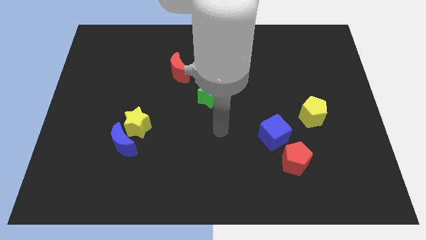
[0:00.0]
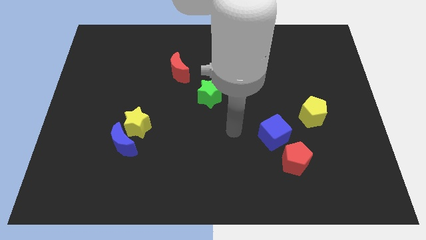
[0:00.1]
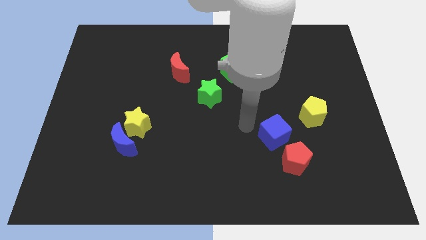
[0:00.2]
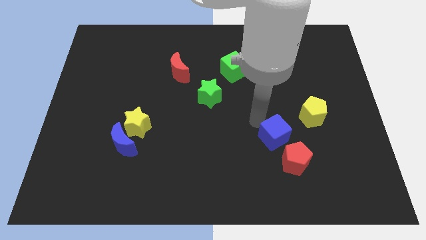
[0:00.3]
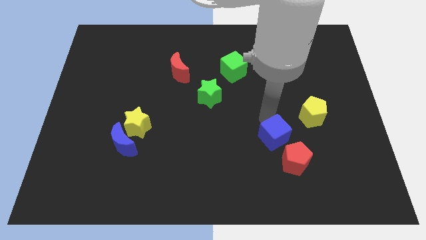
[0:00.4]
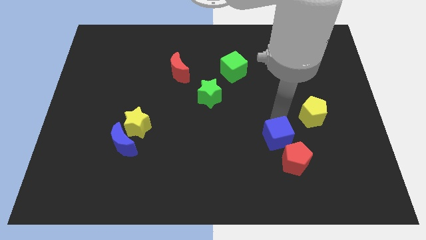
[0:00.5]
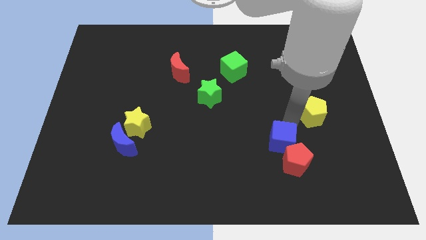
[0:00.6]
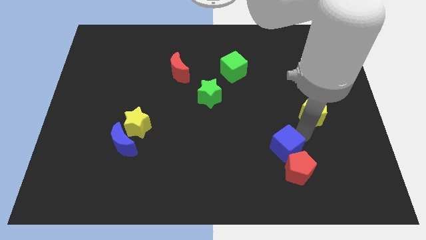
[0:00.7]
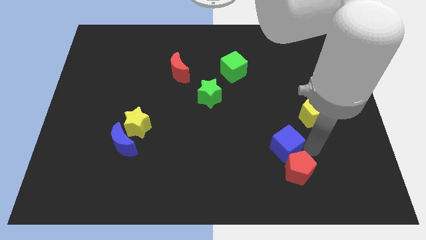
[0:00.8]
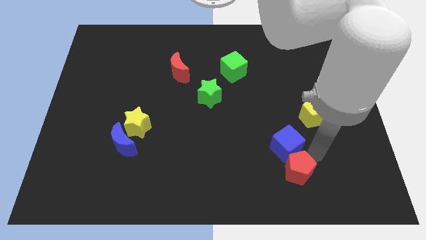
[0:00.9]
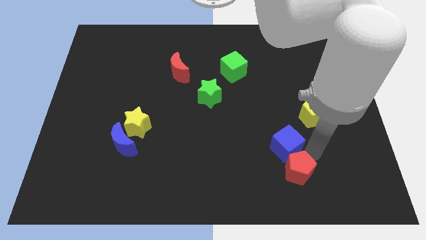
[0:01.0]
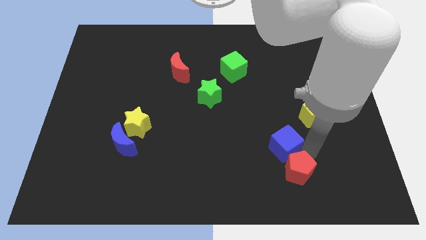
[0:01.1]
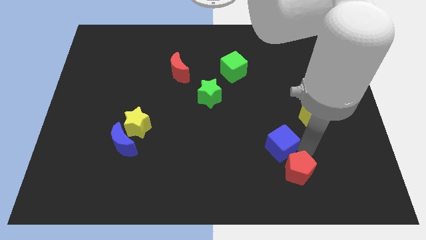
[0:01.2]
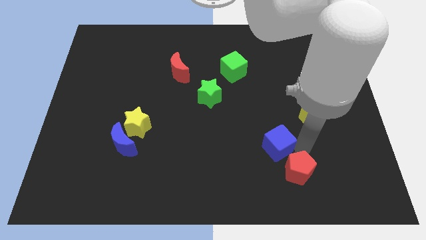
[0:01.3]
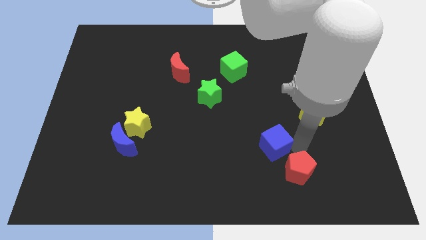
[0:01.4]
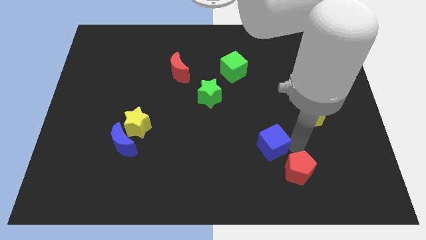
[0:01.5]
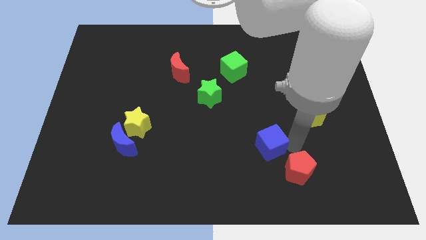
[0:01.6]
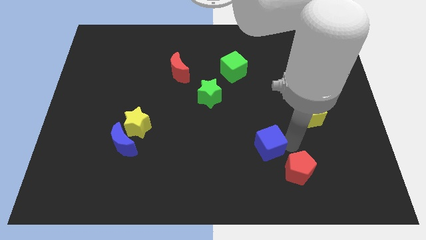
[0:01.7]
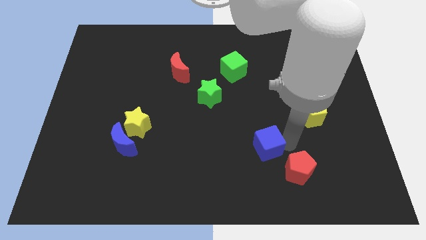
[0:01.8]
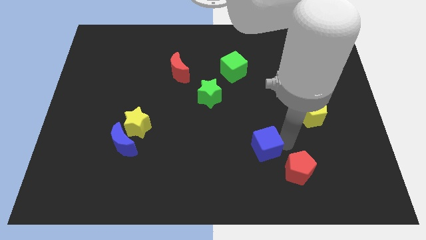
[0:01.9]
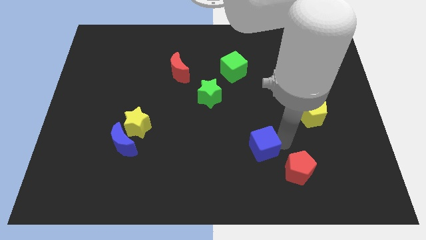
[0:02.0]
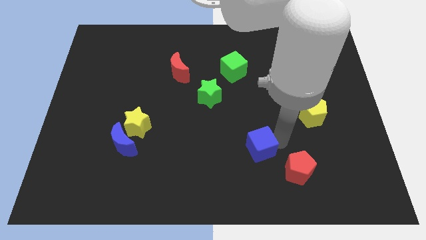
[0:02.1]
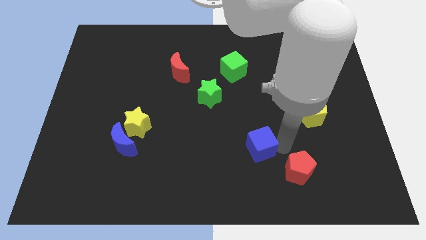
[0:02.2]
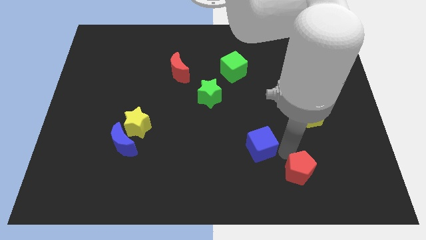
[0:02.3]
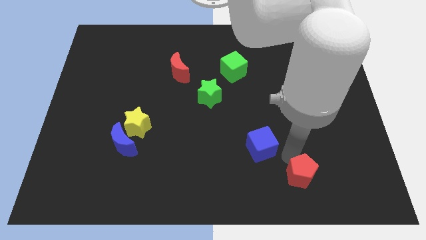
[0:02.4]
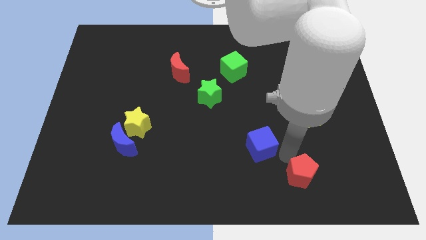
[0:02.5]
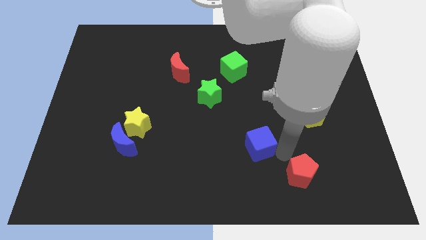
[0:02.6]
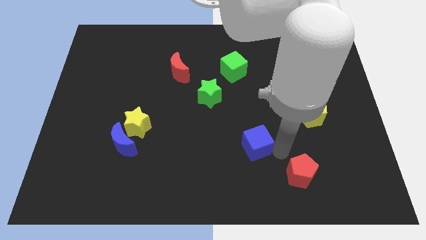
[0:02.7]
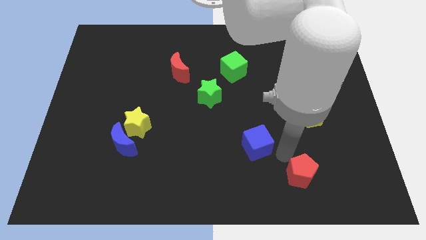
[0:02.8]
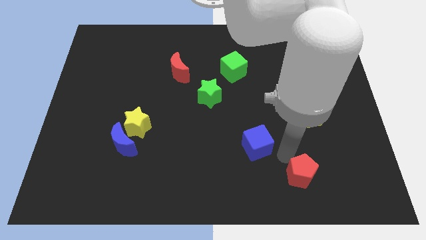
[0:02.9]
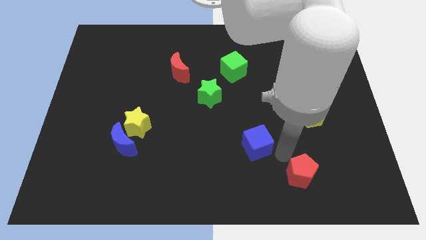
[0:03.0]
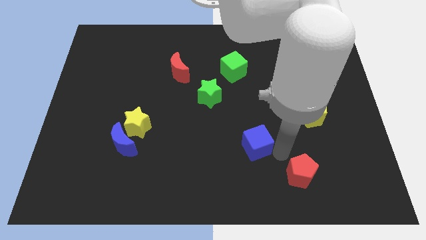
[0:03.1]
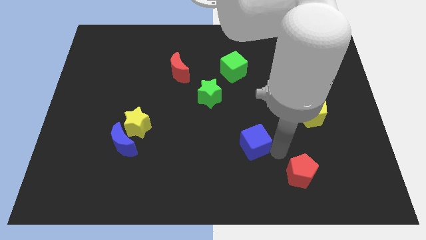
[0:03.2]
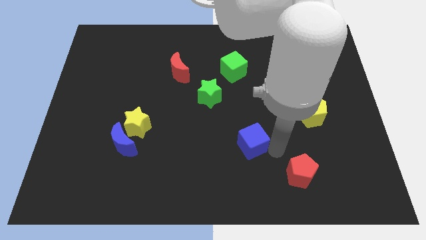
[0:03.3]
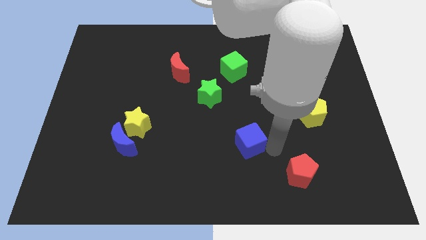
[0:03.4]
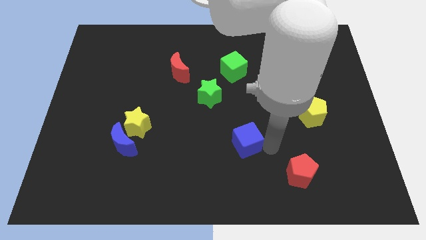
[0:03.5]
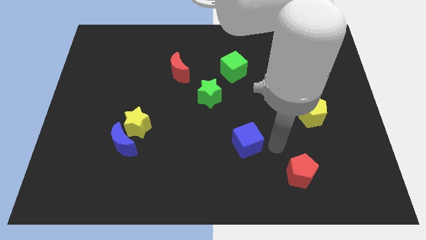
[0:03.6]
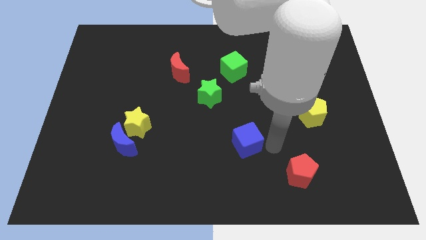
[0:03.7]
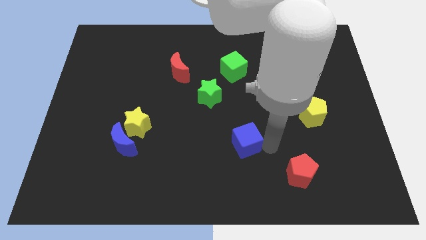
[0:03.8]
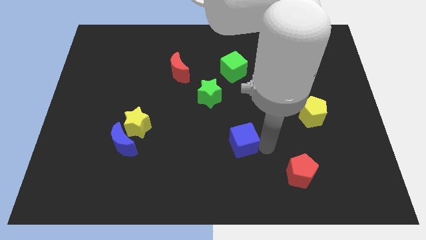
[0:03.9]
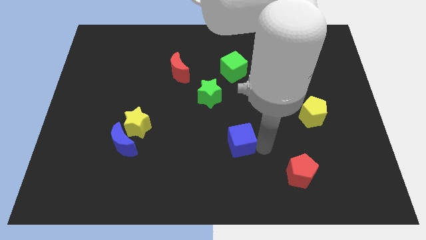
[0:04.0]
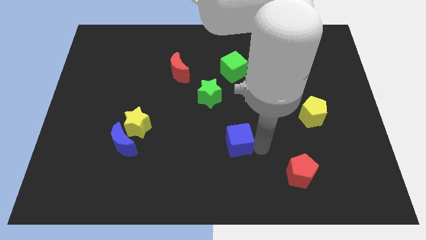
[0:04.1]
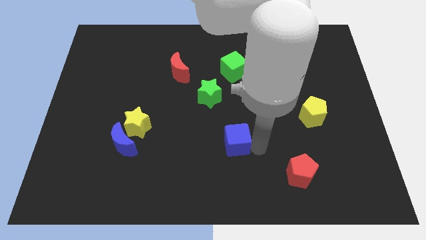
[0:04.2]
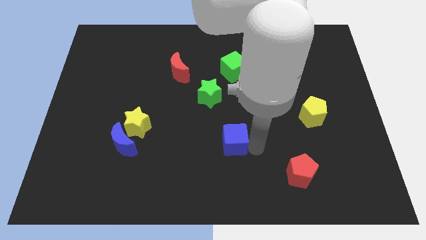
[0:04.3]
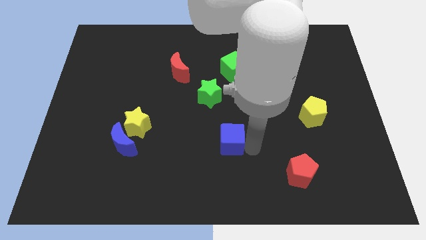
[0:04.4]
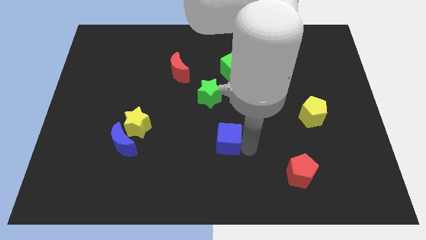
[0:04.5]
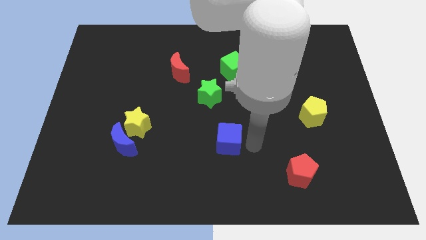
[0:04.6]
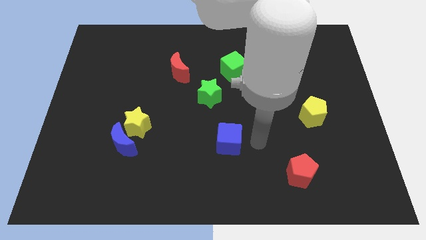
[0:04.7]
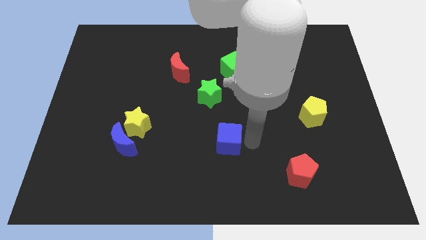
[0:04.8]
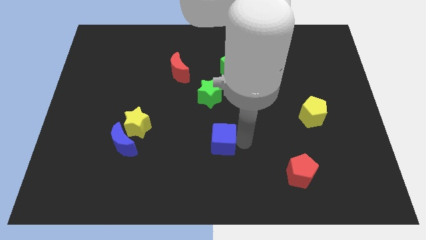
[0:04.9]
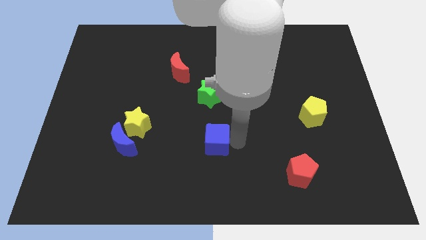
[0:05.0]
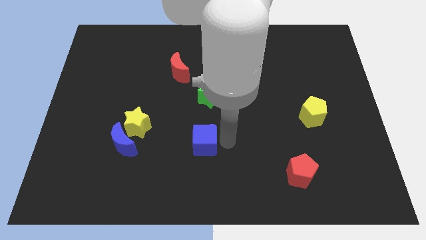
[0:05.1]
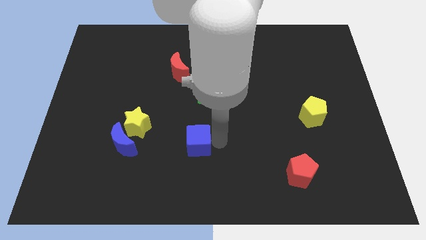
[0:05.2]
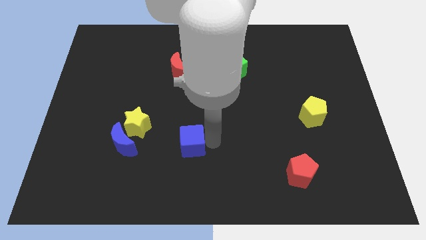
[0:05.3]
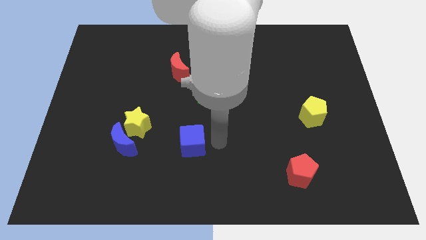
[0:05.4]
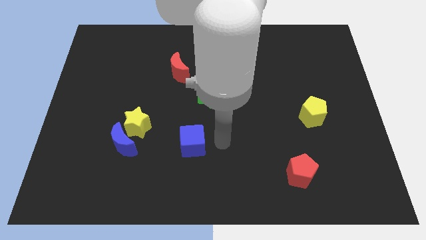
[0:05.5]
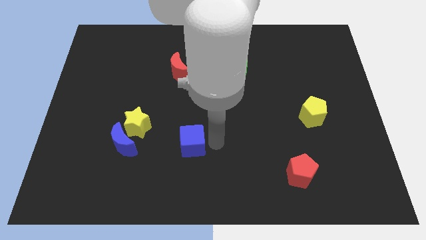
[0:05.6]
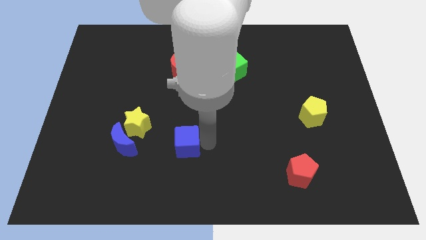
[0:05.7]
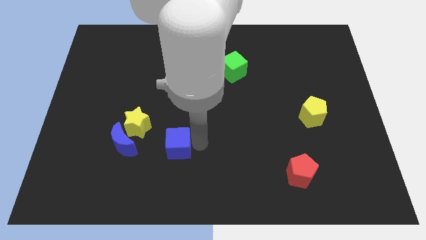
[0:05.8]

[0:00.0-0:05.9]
slide the blue cube to the bottom right of the yellow star

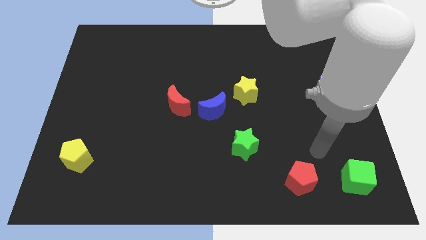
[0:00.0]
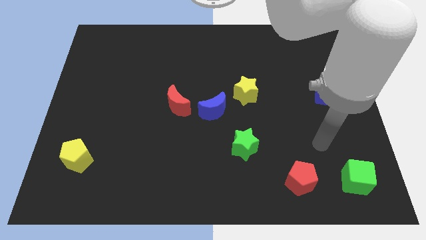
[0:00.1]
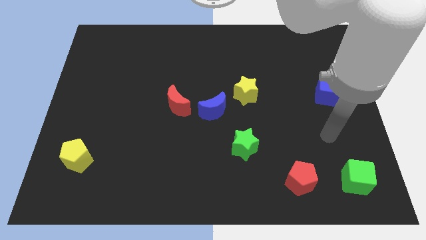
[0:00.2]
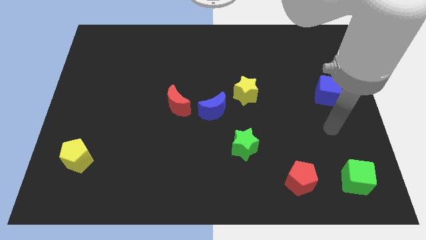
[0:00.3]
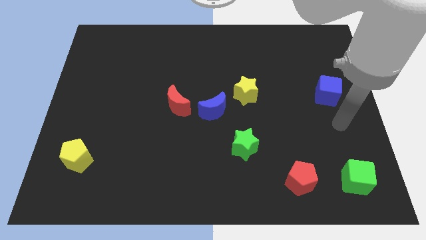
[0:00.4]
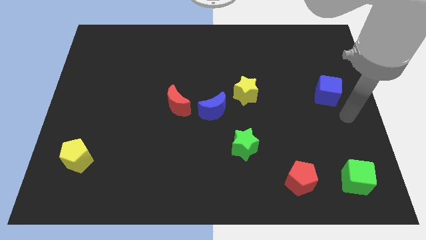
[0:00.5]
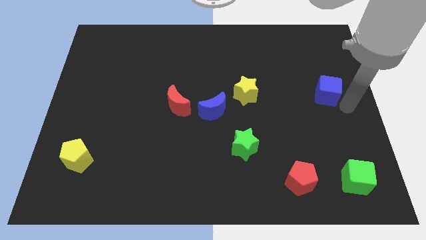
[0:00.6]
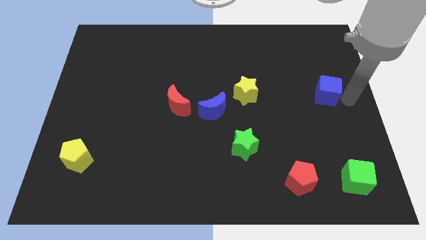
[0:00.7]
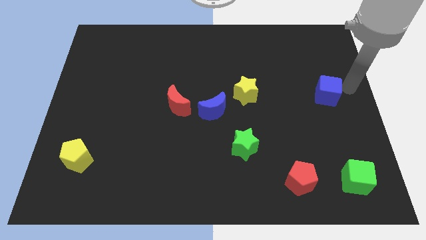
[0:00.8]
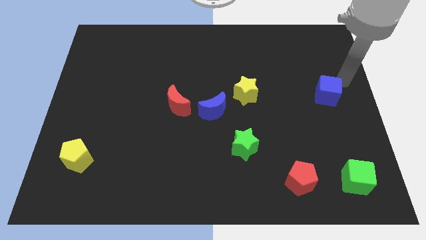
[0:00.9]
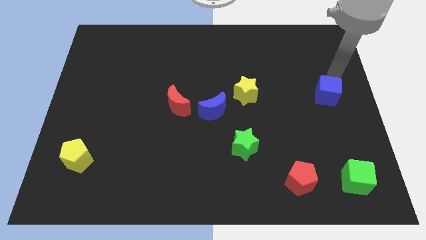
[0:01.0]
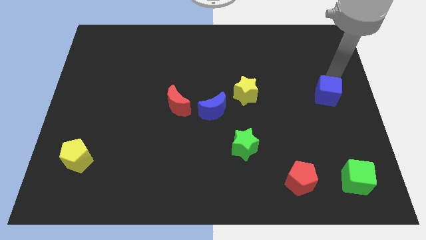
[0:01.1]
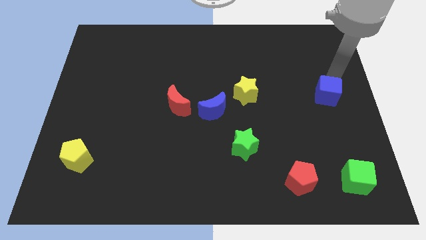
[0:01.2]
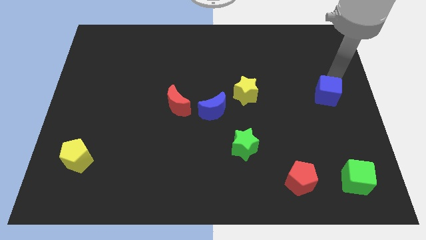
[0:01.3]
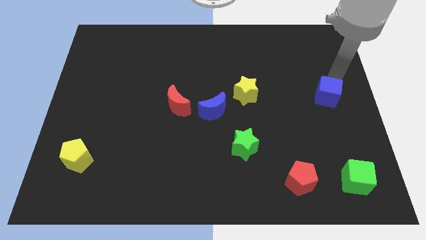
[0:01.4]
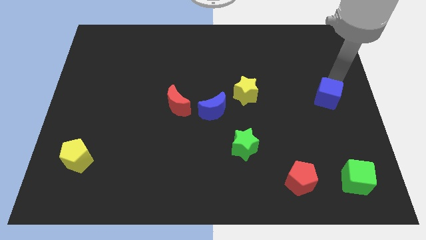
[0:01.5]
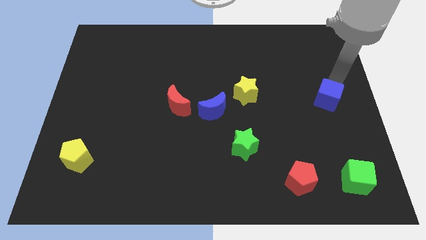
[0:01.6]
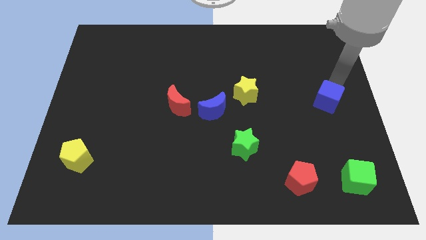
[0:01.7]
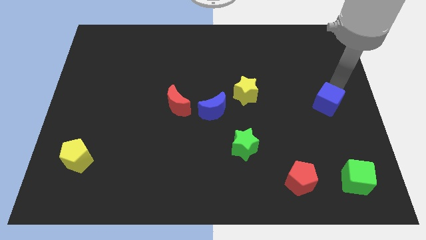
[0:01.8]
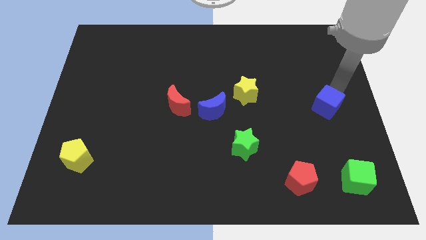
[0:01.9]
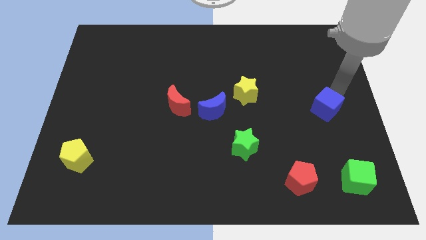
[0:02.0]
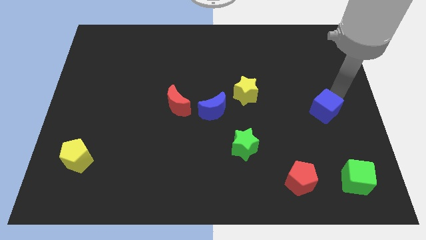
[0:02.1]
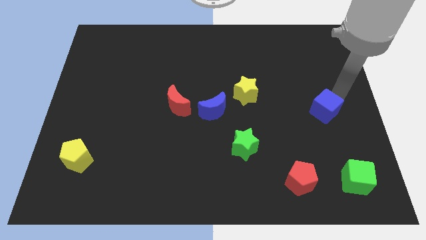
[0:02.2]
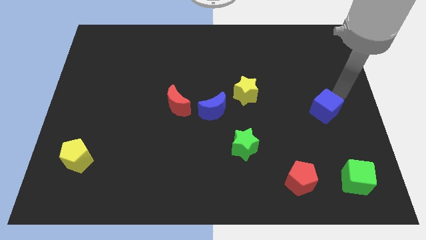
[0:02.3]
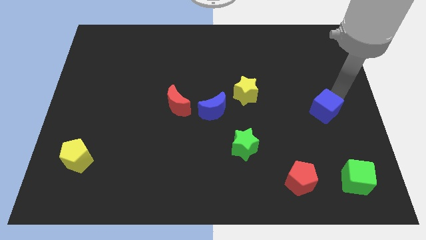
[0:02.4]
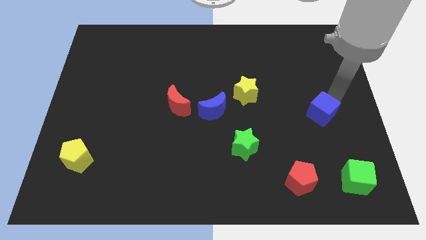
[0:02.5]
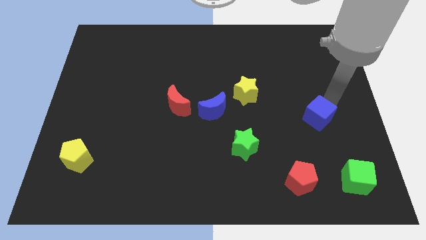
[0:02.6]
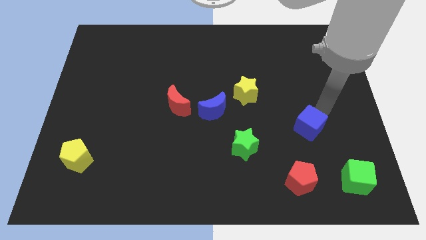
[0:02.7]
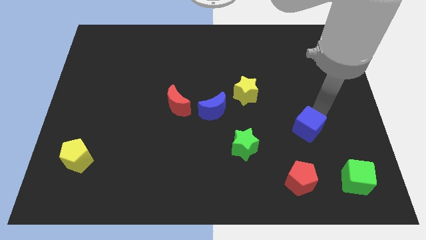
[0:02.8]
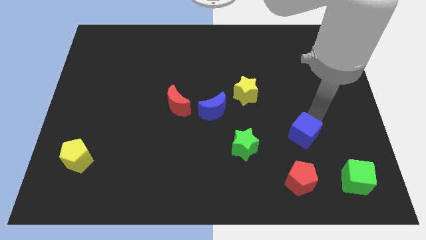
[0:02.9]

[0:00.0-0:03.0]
slide the blue cube right of the green star
